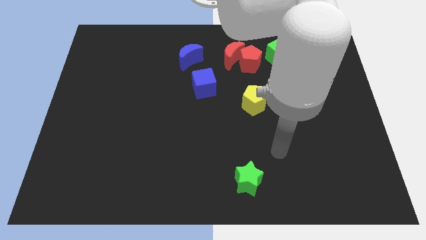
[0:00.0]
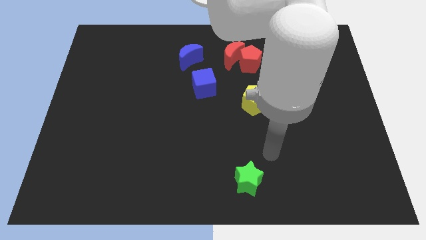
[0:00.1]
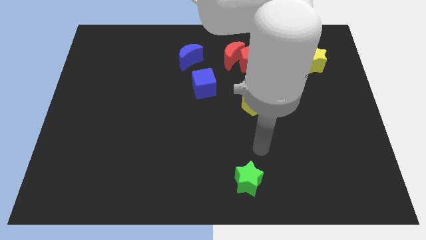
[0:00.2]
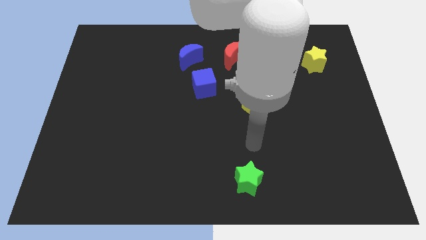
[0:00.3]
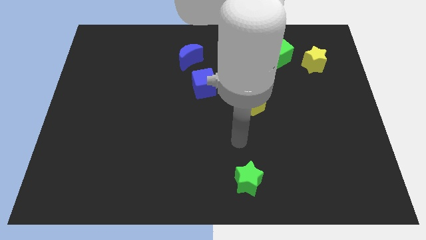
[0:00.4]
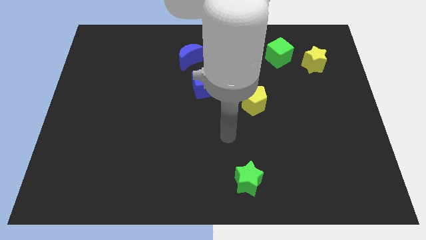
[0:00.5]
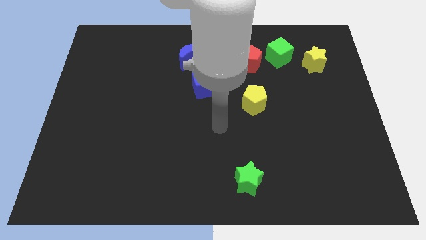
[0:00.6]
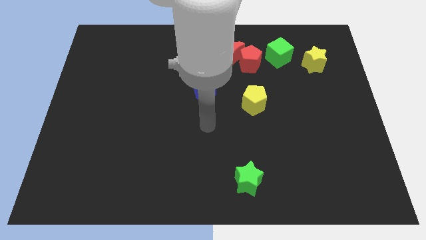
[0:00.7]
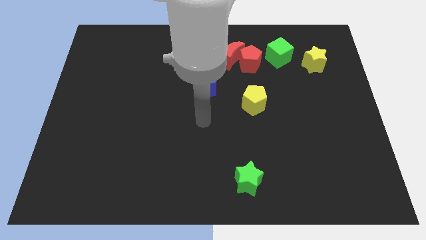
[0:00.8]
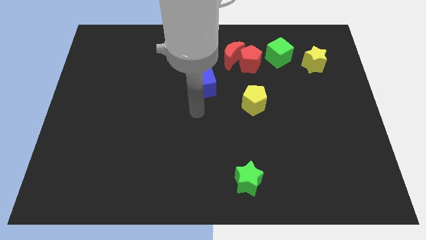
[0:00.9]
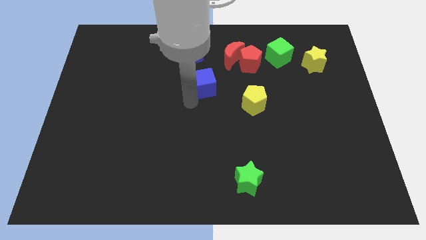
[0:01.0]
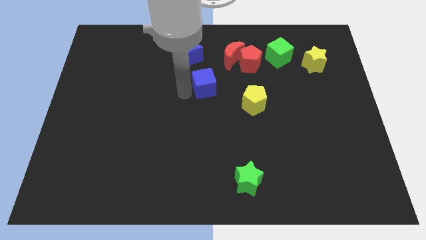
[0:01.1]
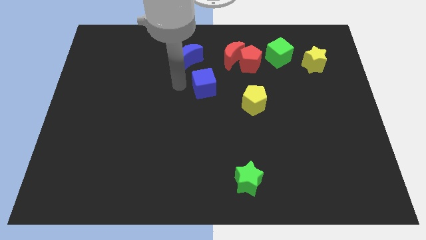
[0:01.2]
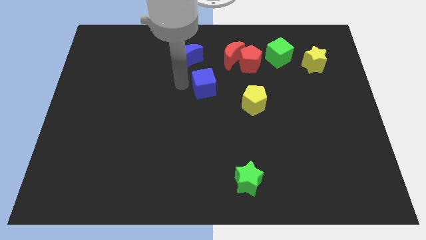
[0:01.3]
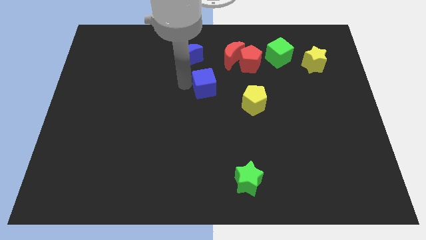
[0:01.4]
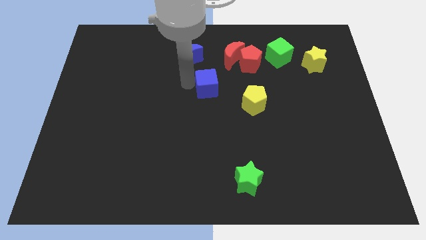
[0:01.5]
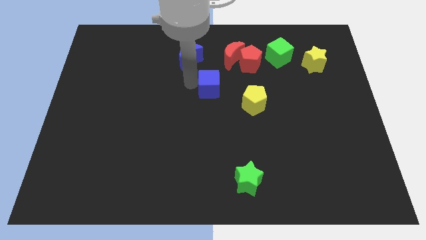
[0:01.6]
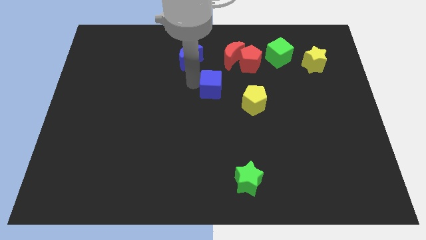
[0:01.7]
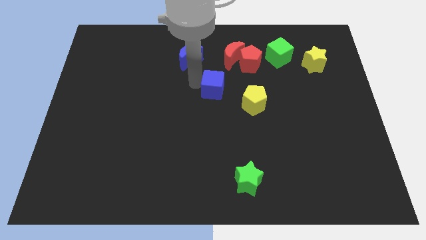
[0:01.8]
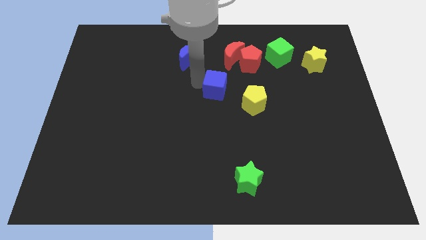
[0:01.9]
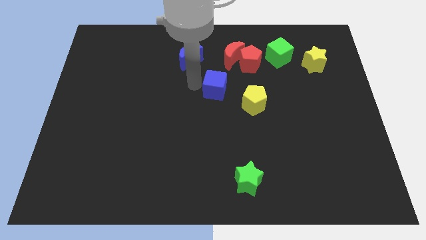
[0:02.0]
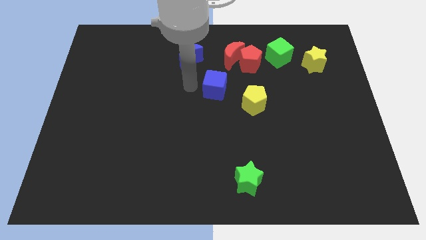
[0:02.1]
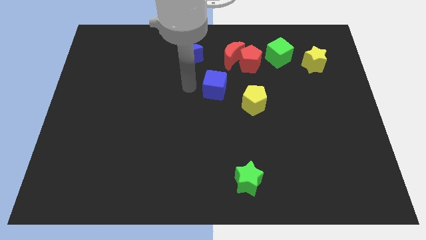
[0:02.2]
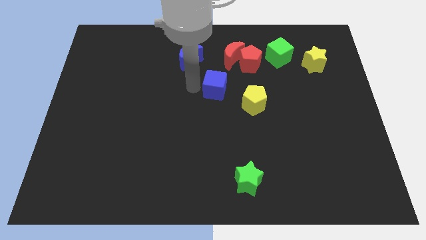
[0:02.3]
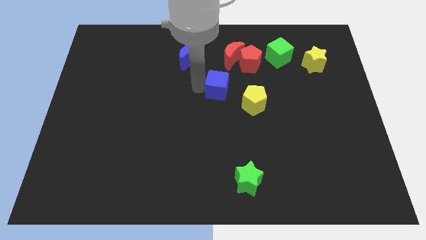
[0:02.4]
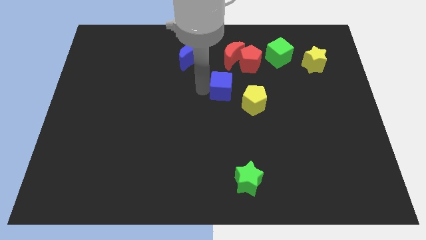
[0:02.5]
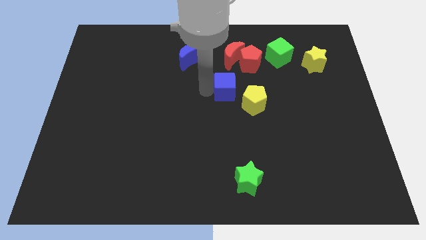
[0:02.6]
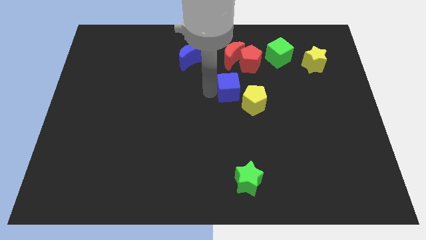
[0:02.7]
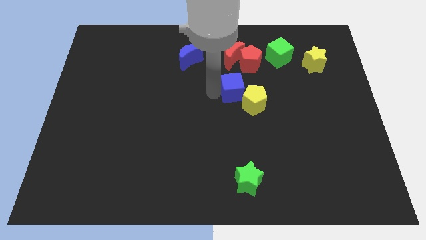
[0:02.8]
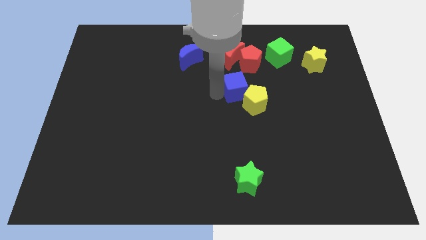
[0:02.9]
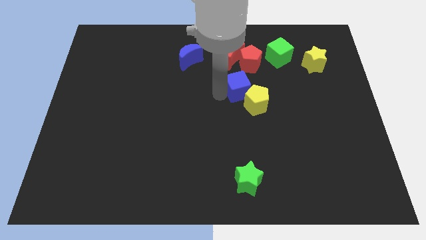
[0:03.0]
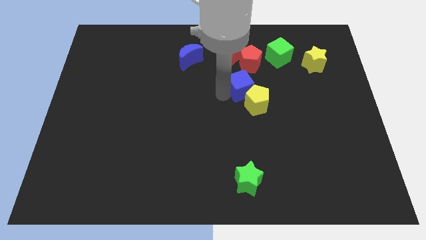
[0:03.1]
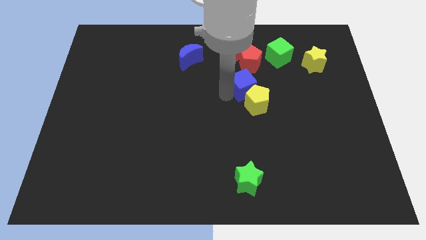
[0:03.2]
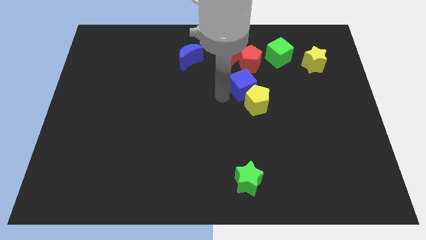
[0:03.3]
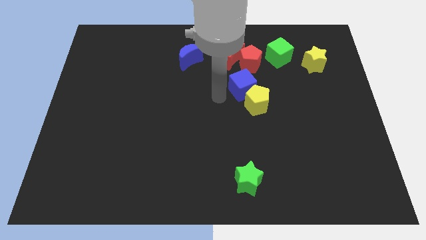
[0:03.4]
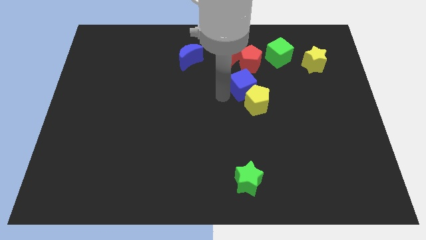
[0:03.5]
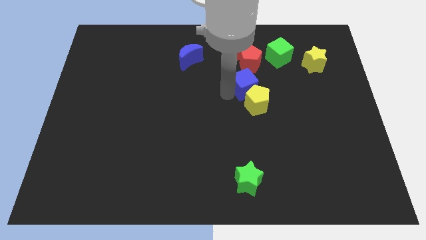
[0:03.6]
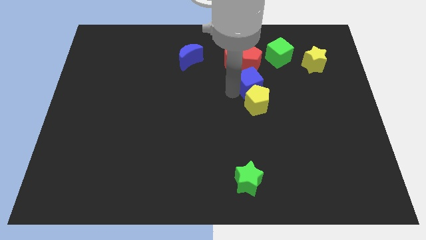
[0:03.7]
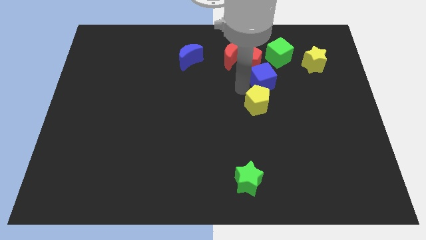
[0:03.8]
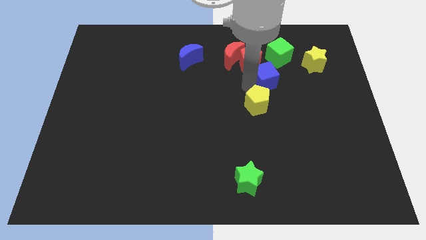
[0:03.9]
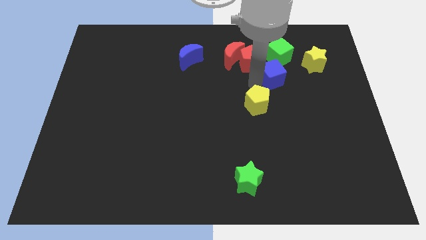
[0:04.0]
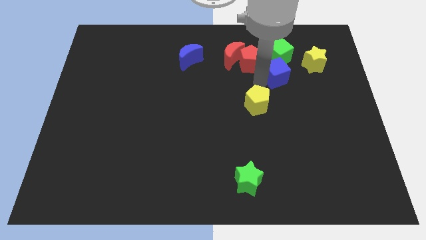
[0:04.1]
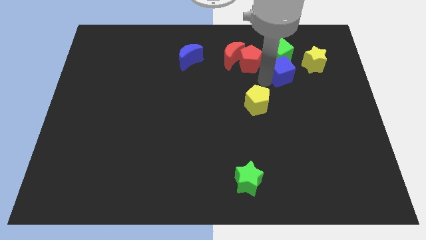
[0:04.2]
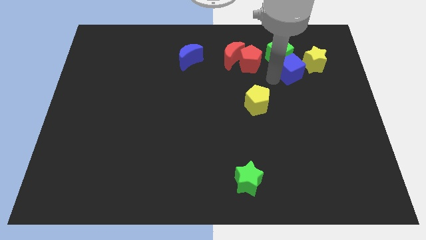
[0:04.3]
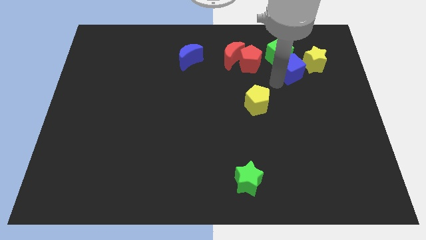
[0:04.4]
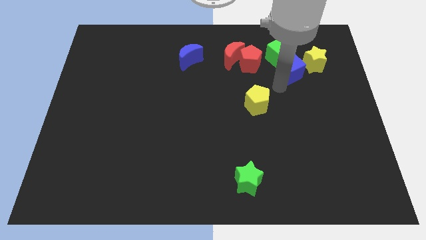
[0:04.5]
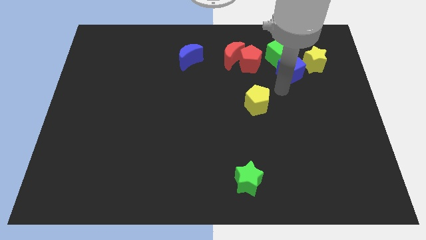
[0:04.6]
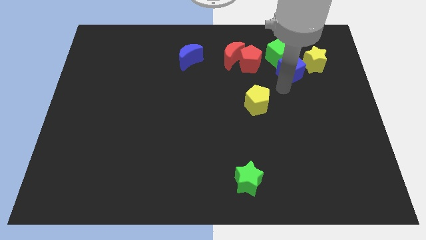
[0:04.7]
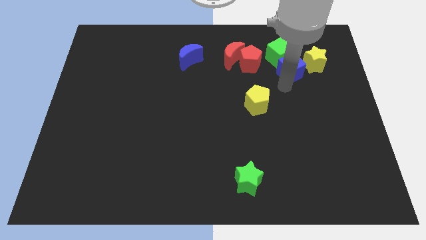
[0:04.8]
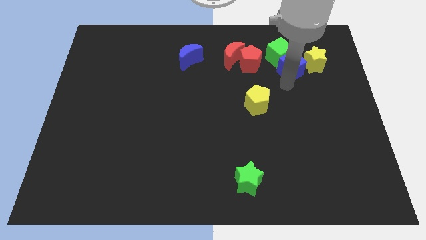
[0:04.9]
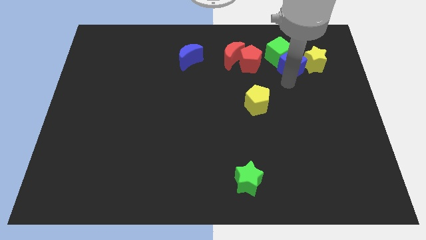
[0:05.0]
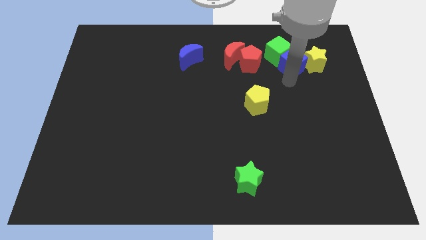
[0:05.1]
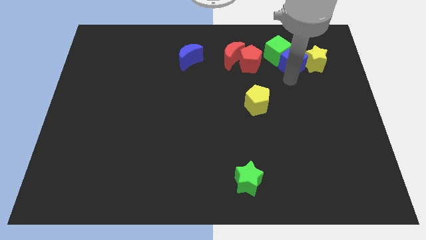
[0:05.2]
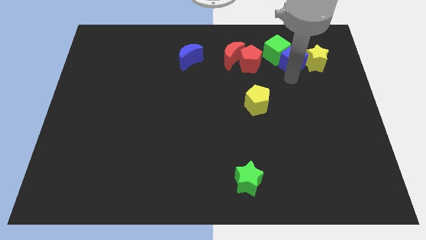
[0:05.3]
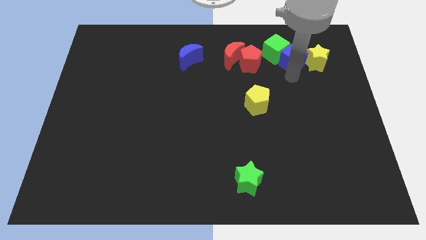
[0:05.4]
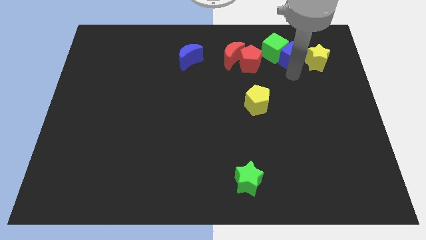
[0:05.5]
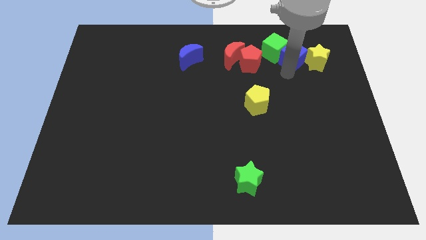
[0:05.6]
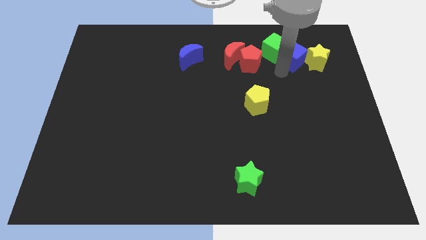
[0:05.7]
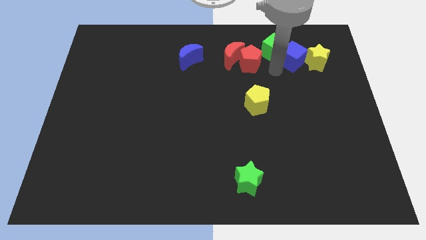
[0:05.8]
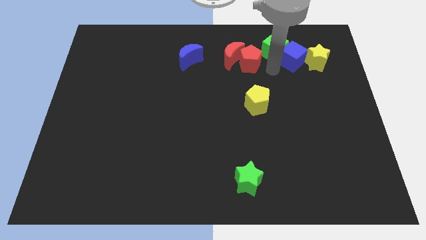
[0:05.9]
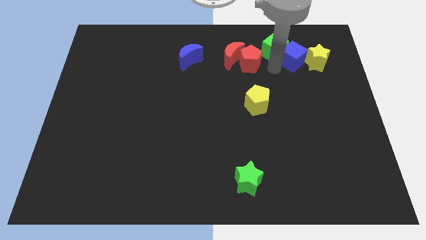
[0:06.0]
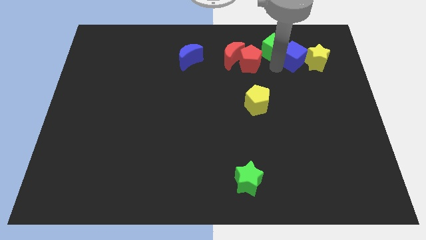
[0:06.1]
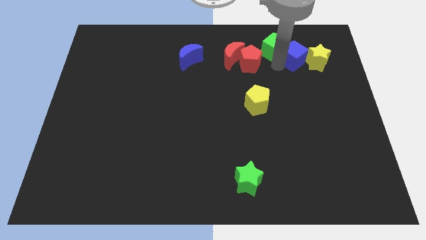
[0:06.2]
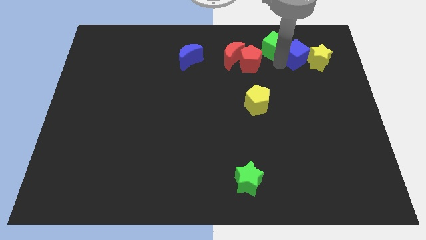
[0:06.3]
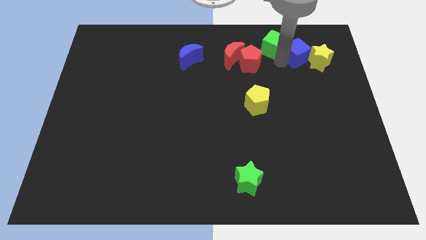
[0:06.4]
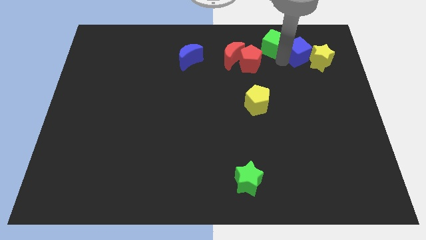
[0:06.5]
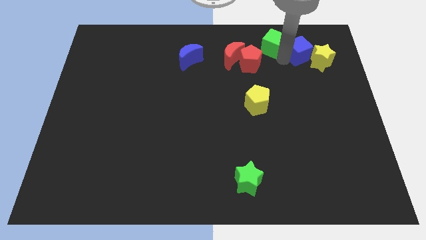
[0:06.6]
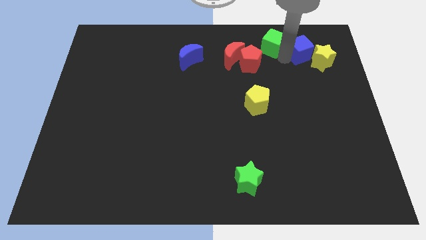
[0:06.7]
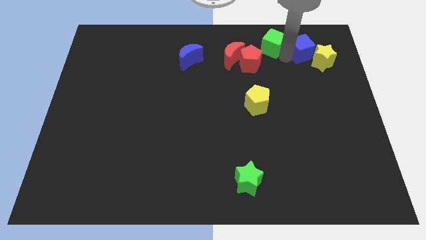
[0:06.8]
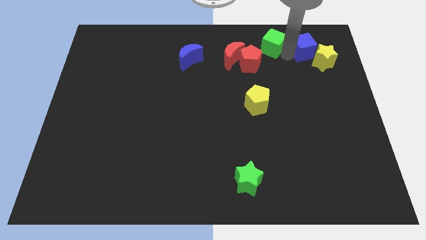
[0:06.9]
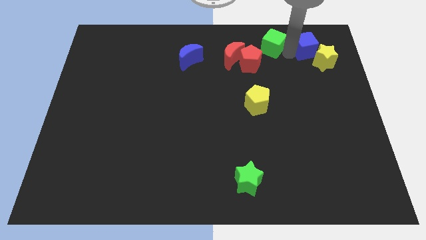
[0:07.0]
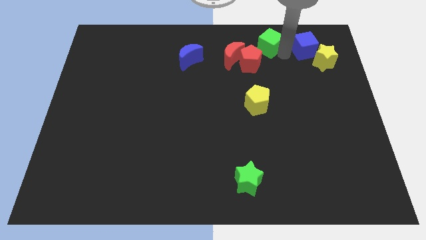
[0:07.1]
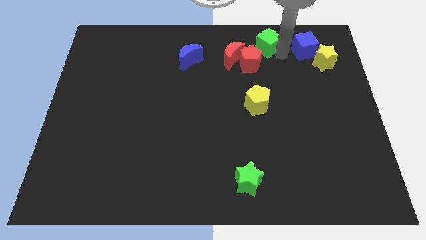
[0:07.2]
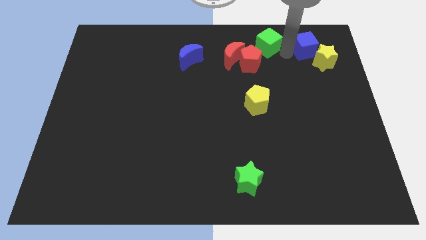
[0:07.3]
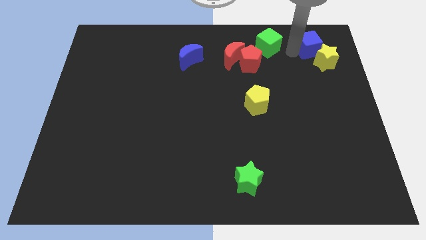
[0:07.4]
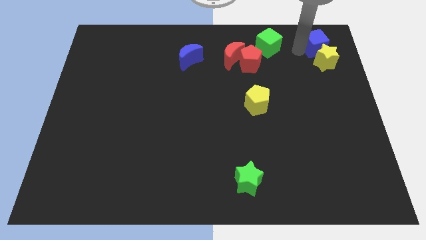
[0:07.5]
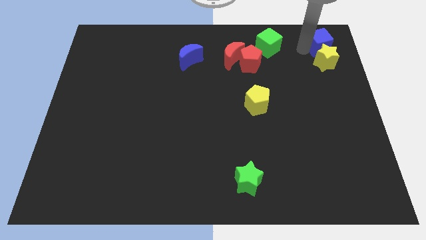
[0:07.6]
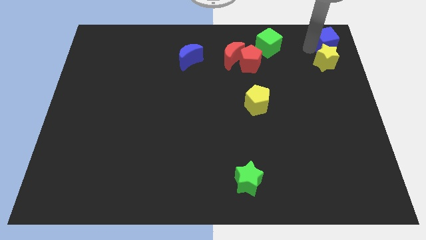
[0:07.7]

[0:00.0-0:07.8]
slide the blue cube to the upper right corner
